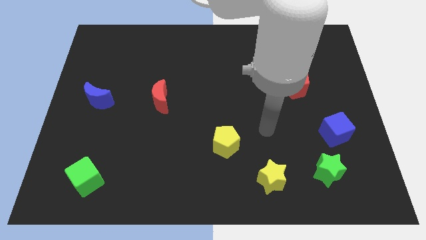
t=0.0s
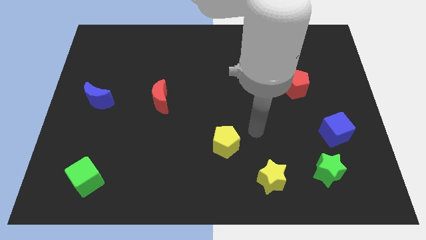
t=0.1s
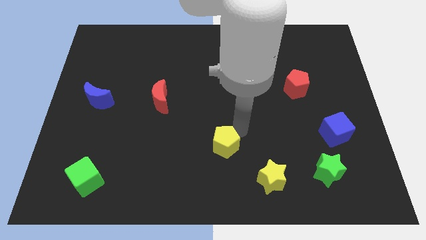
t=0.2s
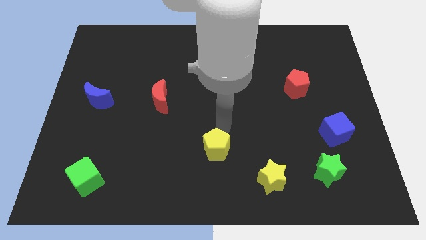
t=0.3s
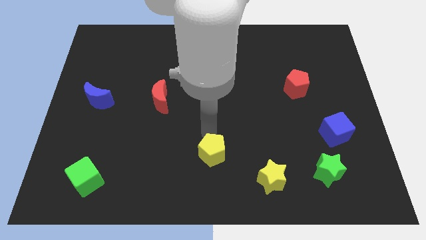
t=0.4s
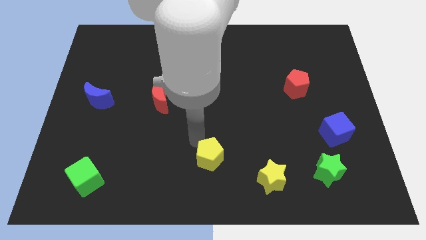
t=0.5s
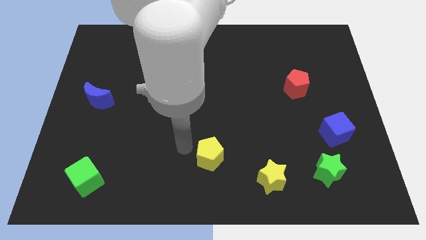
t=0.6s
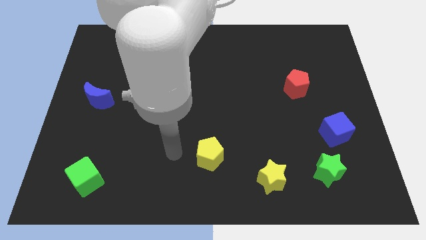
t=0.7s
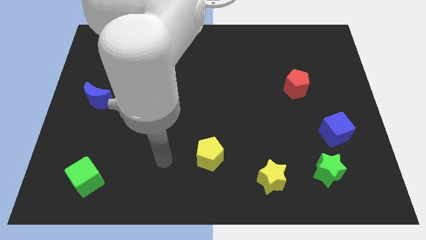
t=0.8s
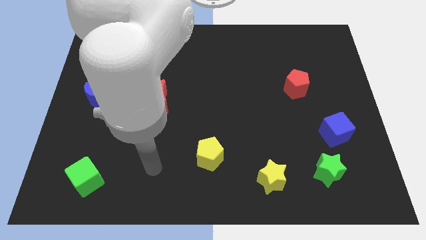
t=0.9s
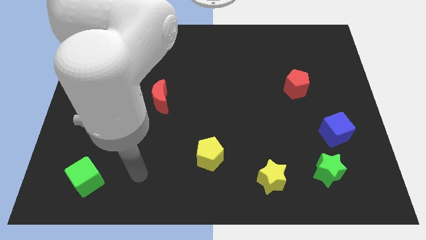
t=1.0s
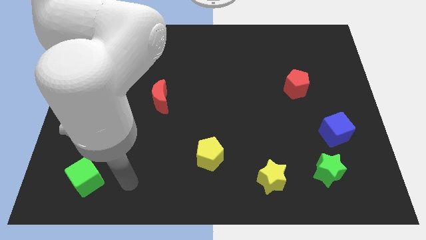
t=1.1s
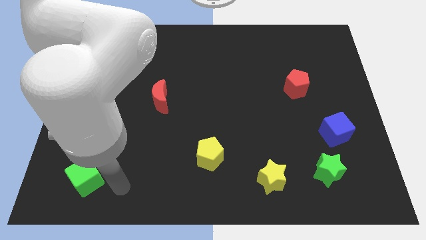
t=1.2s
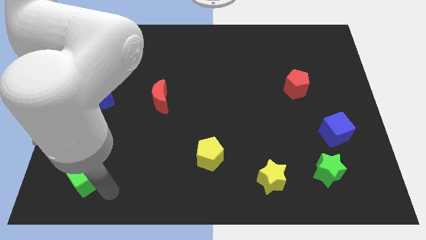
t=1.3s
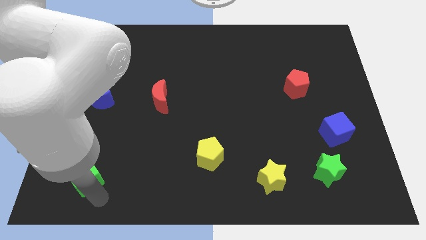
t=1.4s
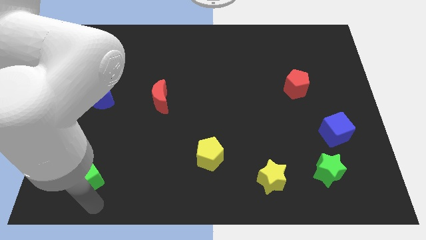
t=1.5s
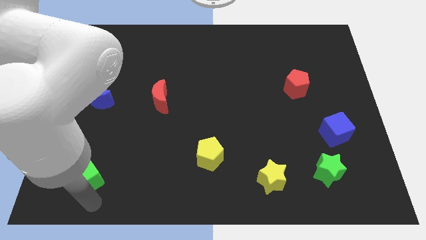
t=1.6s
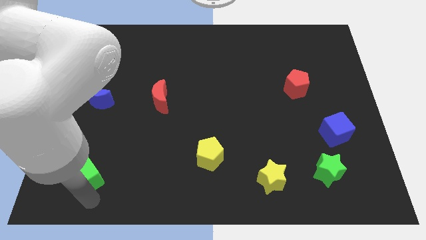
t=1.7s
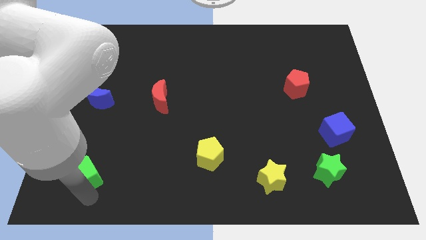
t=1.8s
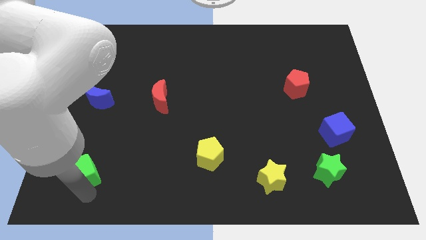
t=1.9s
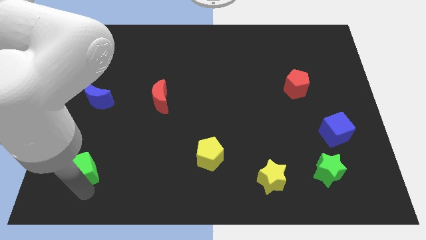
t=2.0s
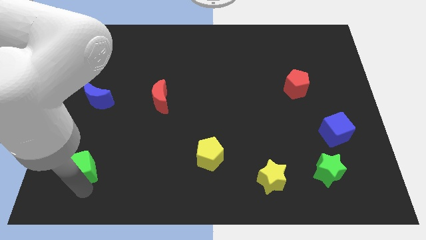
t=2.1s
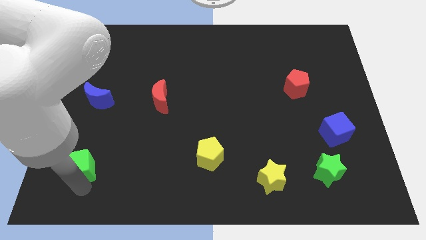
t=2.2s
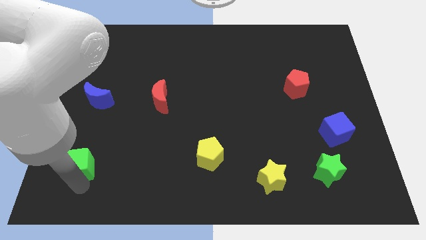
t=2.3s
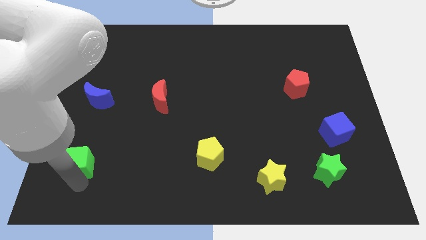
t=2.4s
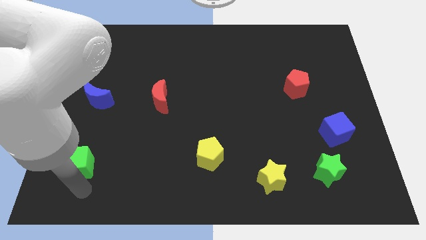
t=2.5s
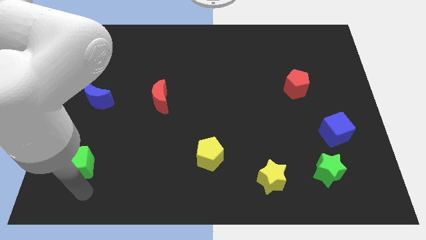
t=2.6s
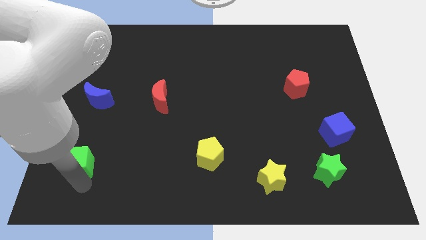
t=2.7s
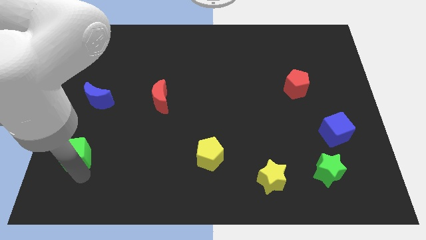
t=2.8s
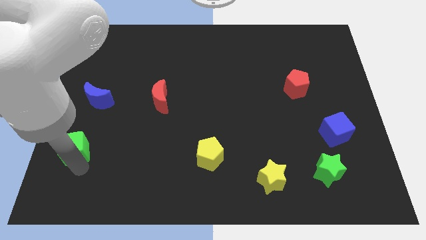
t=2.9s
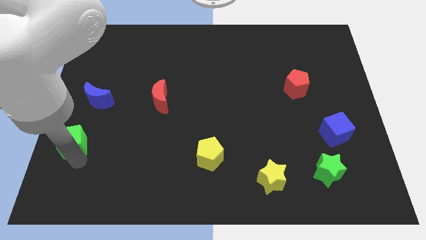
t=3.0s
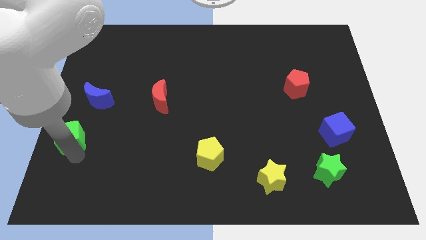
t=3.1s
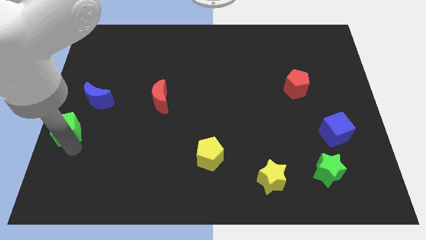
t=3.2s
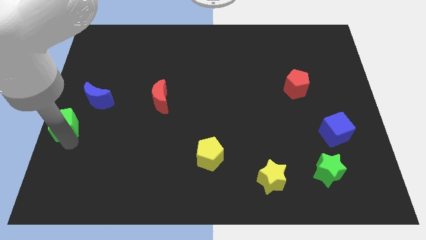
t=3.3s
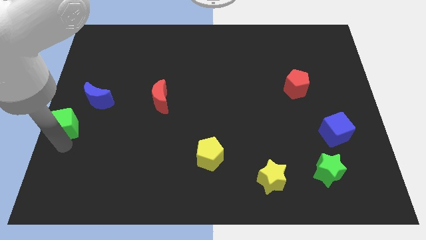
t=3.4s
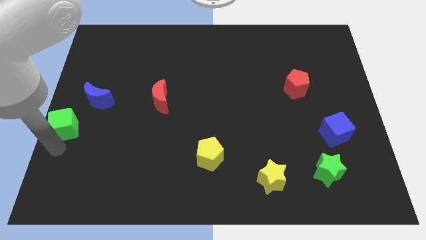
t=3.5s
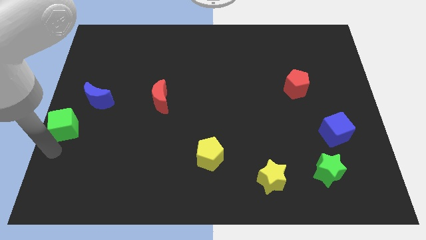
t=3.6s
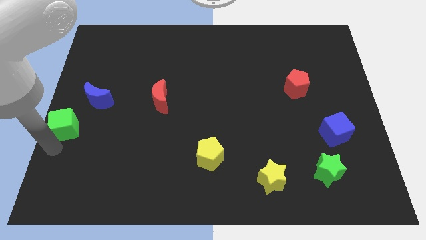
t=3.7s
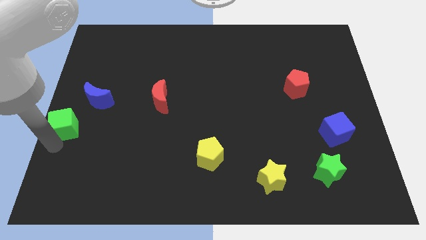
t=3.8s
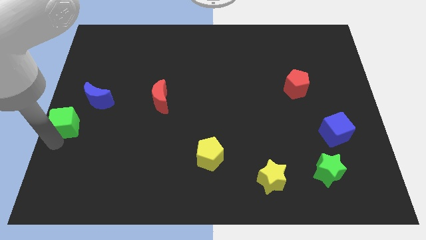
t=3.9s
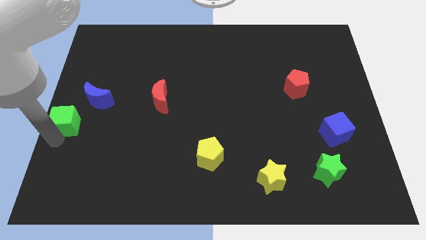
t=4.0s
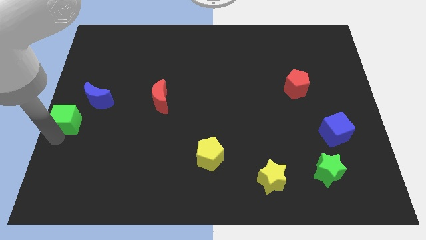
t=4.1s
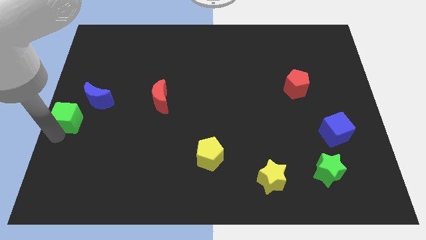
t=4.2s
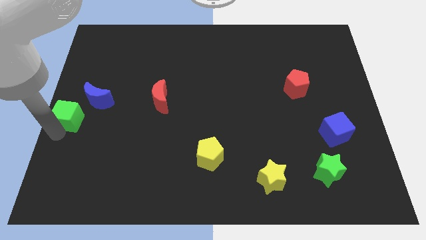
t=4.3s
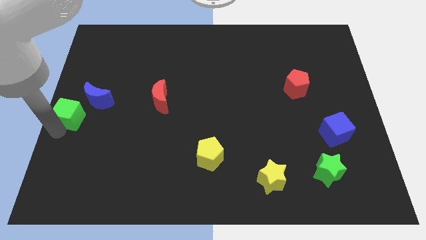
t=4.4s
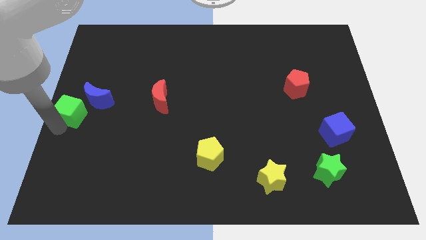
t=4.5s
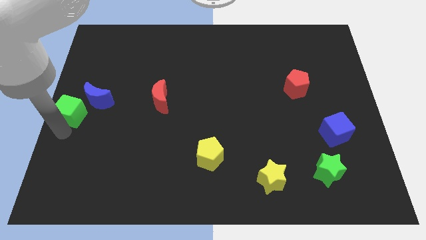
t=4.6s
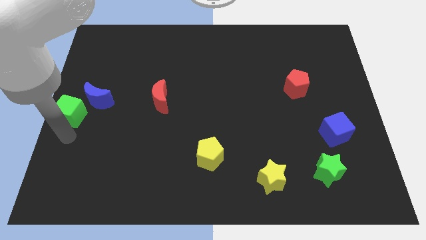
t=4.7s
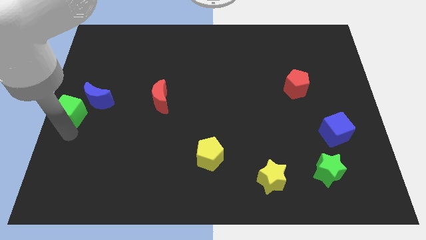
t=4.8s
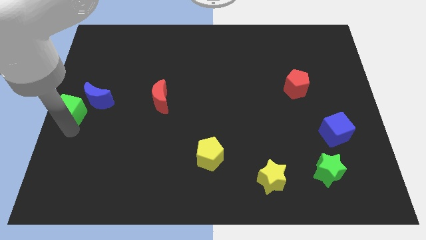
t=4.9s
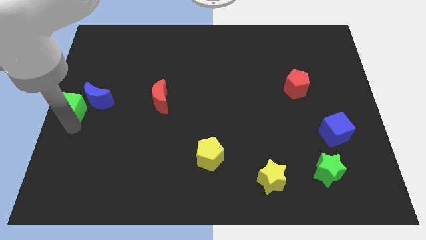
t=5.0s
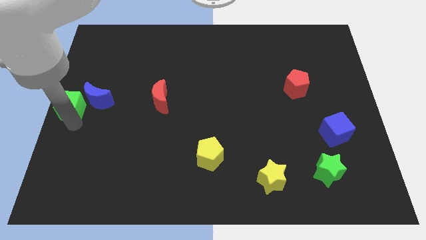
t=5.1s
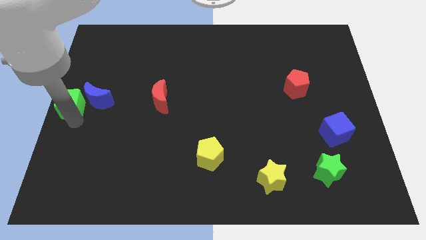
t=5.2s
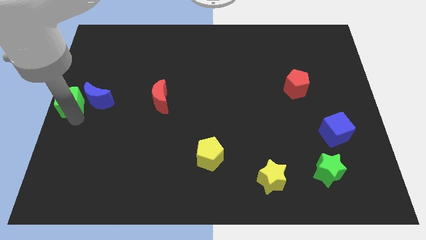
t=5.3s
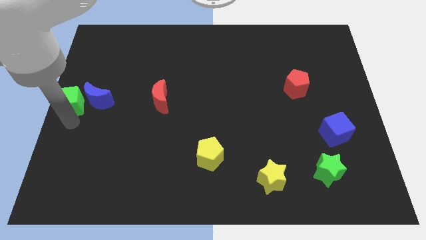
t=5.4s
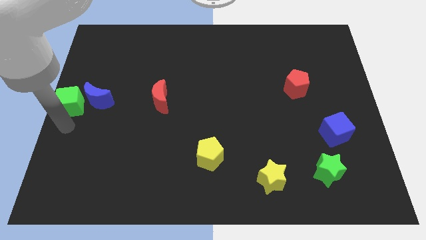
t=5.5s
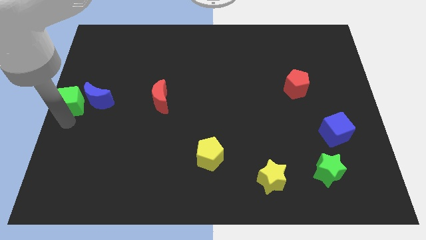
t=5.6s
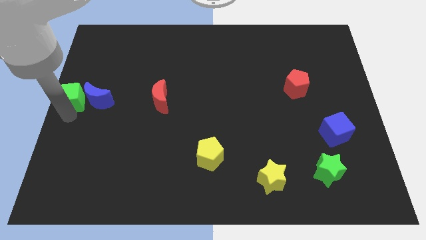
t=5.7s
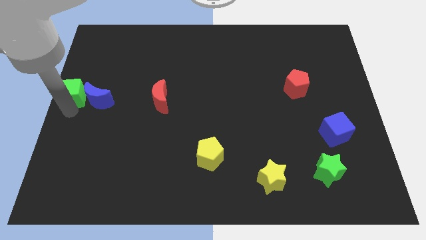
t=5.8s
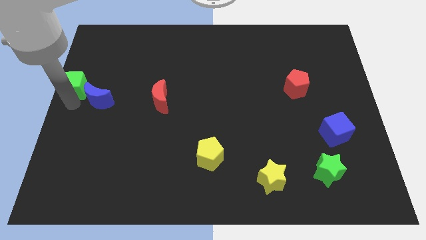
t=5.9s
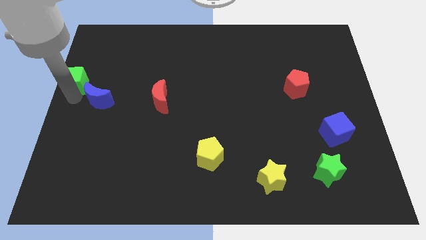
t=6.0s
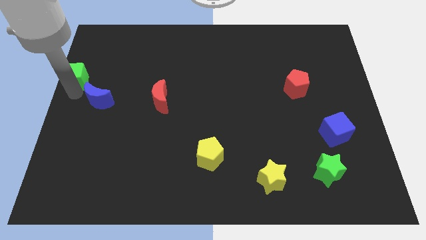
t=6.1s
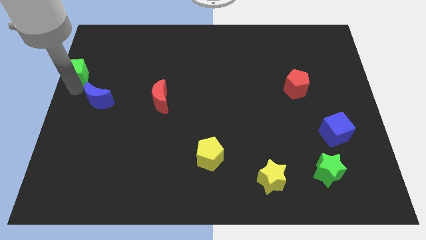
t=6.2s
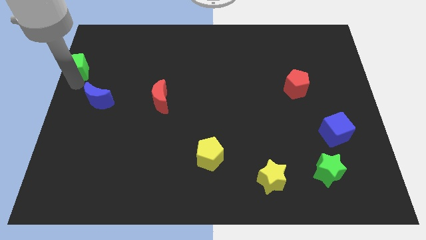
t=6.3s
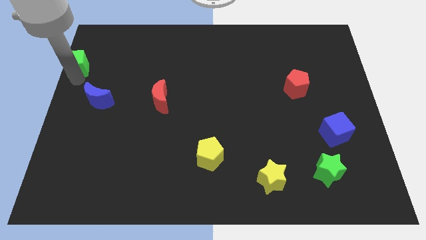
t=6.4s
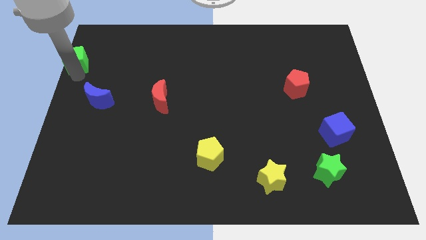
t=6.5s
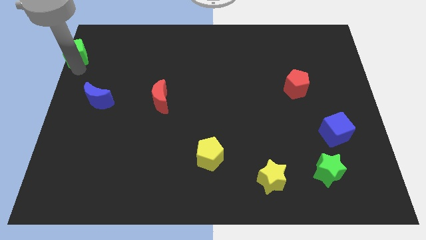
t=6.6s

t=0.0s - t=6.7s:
move the green cube to the upper left corner
